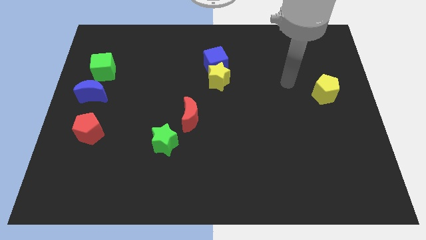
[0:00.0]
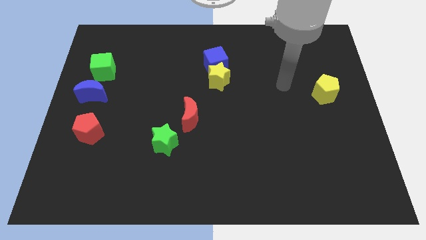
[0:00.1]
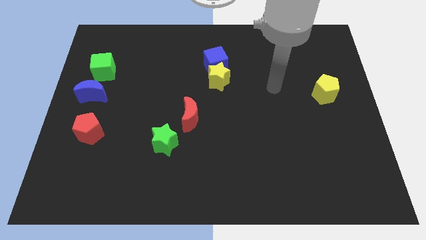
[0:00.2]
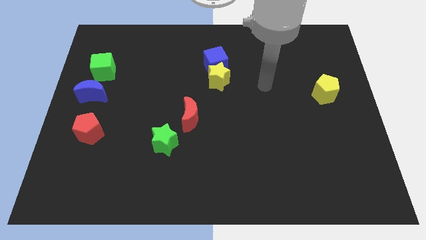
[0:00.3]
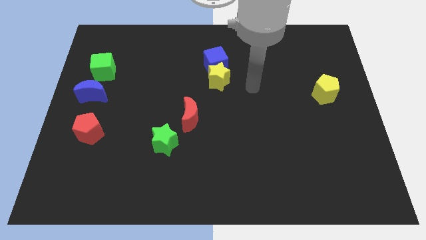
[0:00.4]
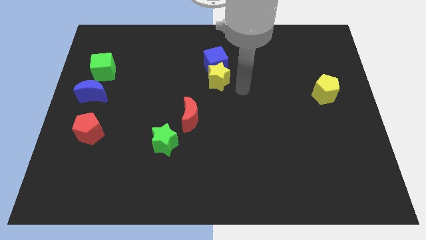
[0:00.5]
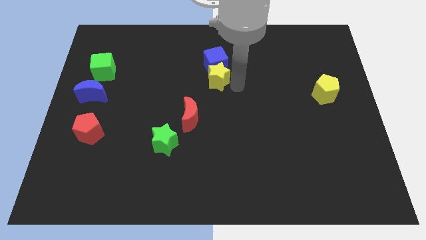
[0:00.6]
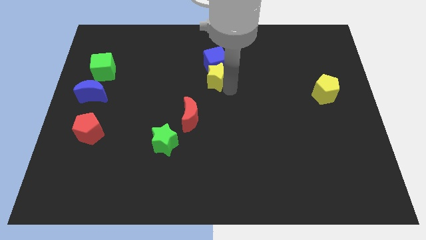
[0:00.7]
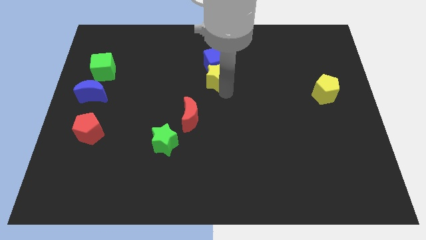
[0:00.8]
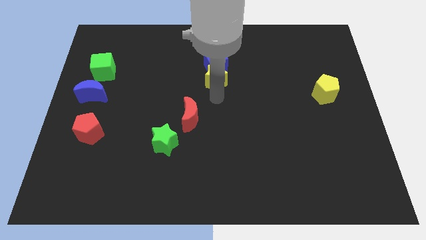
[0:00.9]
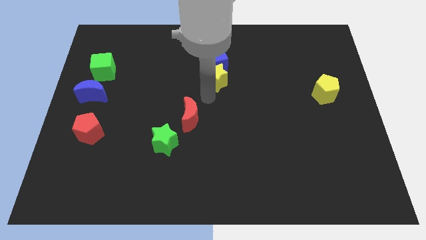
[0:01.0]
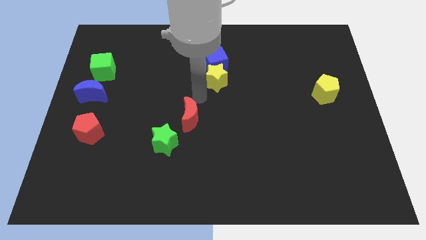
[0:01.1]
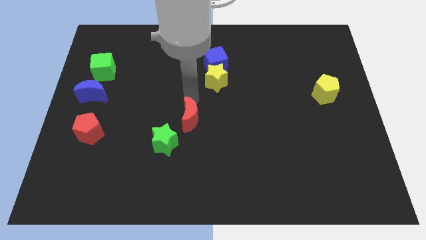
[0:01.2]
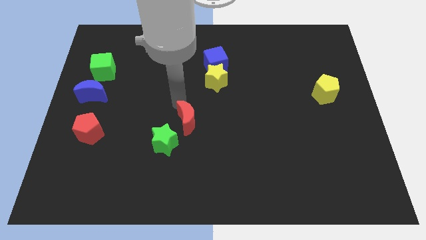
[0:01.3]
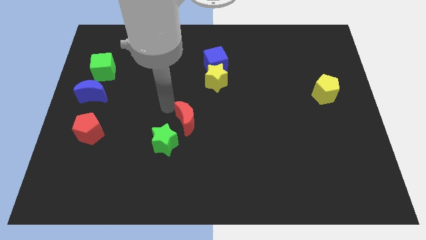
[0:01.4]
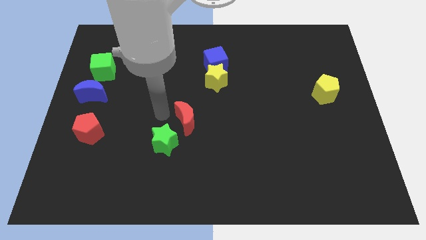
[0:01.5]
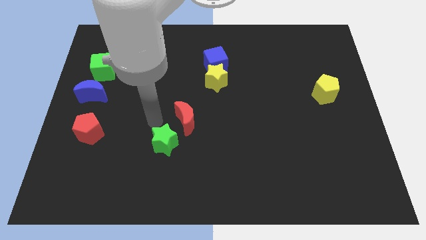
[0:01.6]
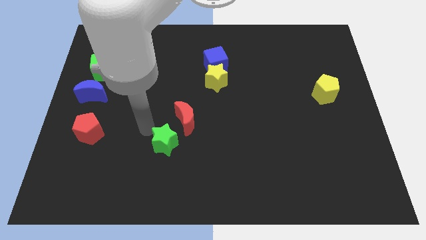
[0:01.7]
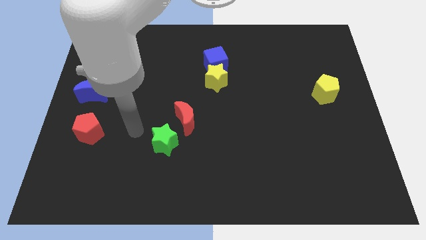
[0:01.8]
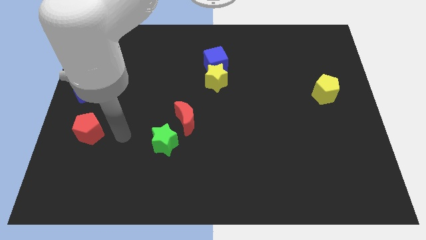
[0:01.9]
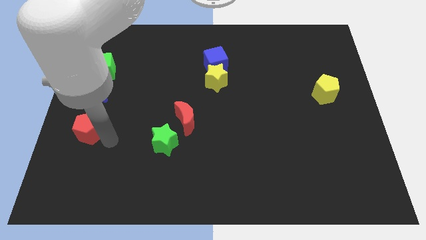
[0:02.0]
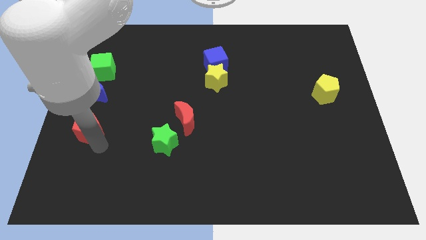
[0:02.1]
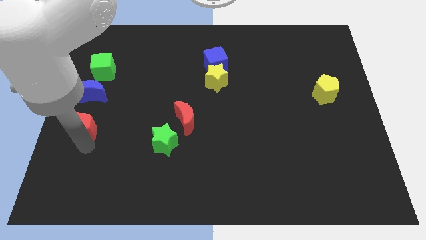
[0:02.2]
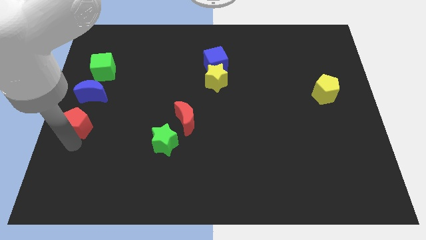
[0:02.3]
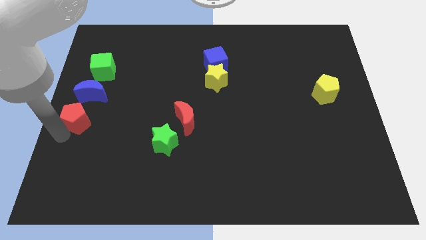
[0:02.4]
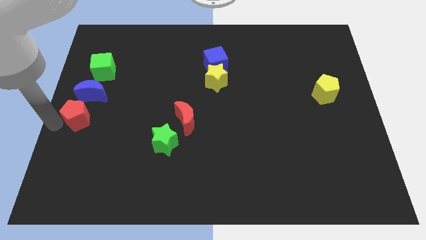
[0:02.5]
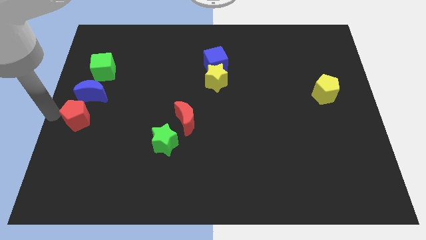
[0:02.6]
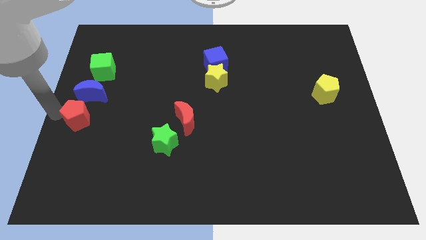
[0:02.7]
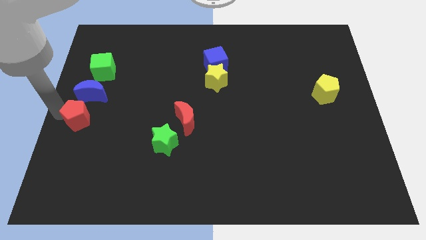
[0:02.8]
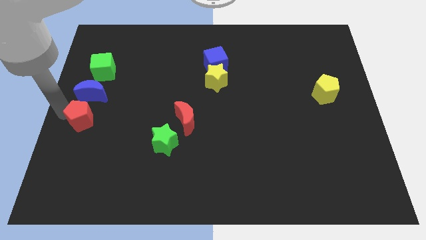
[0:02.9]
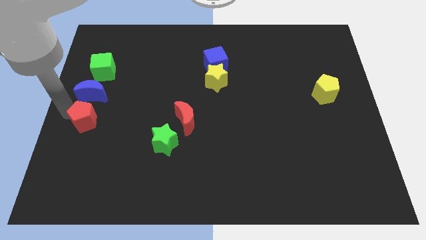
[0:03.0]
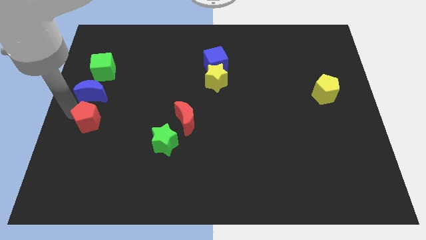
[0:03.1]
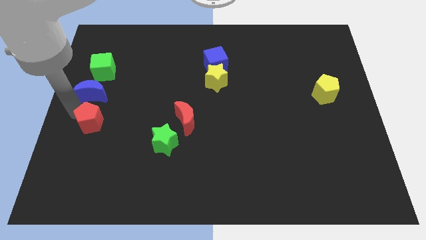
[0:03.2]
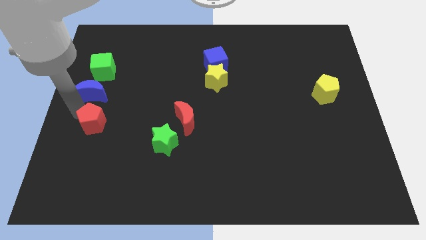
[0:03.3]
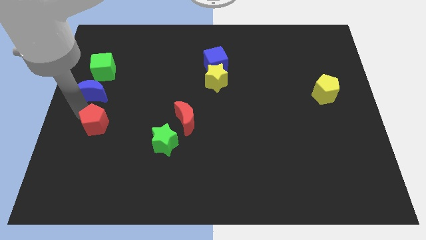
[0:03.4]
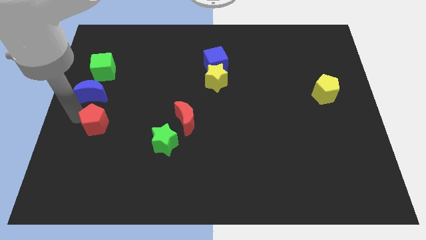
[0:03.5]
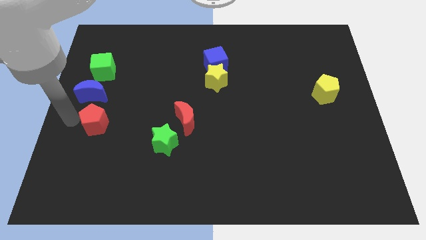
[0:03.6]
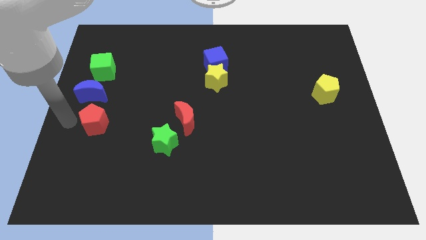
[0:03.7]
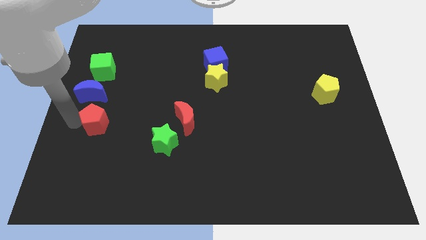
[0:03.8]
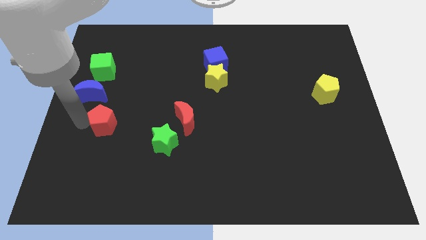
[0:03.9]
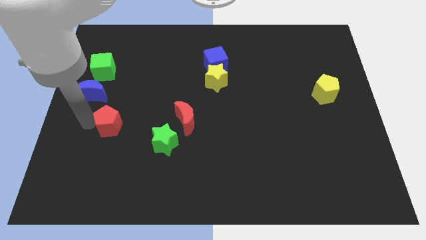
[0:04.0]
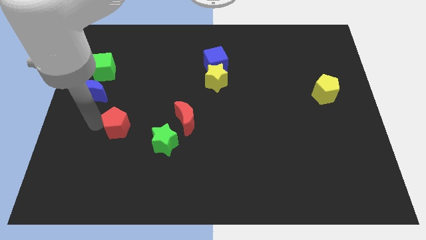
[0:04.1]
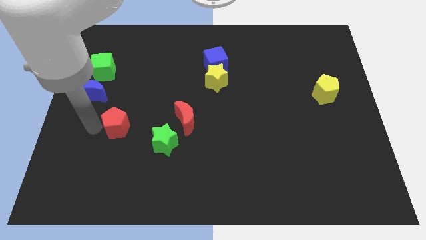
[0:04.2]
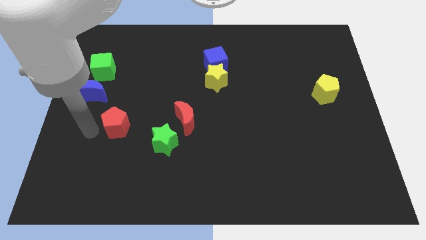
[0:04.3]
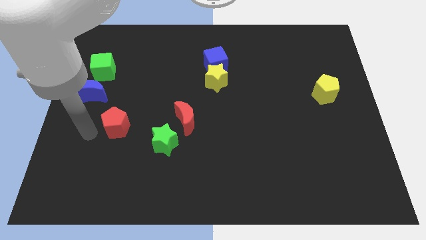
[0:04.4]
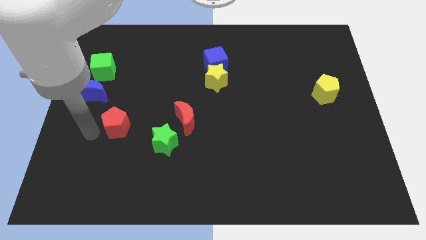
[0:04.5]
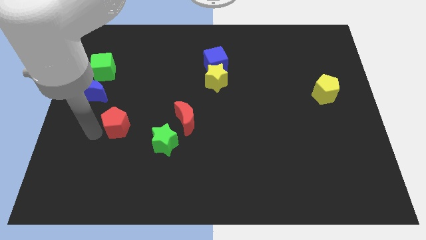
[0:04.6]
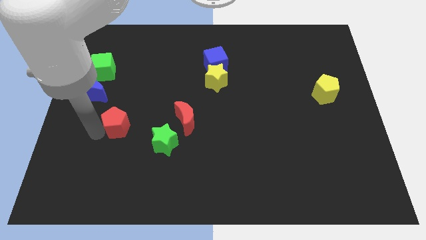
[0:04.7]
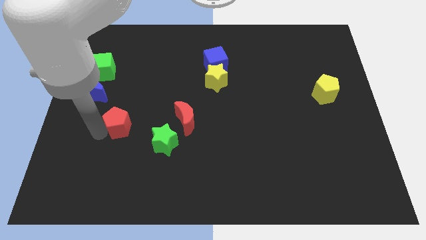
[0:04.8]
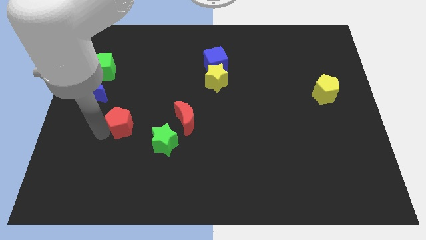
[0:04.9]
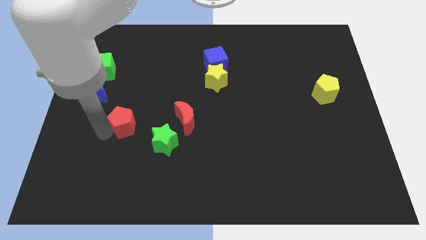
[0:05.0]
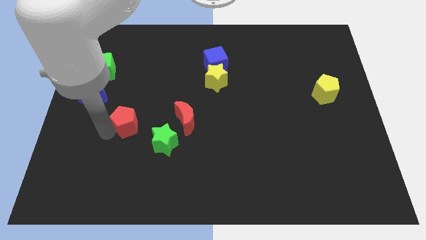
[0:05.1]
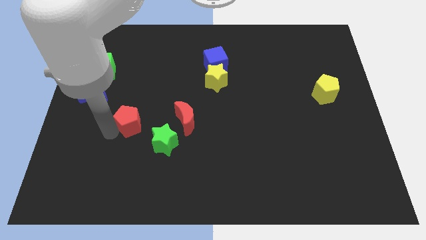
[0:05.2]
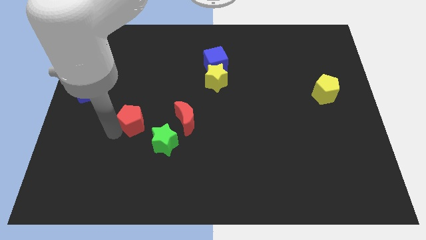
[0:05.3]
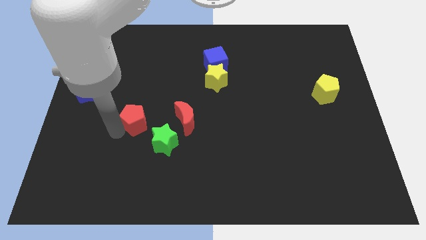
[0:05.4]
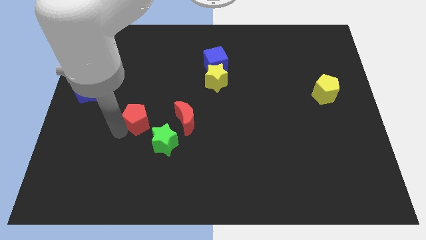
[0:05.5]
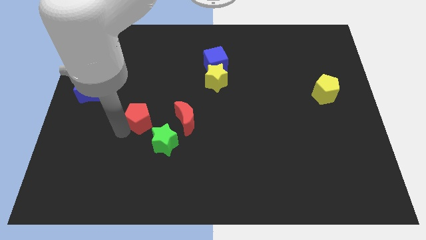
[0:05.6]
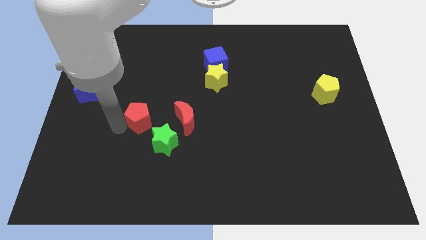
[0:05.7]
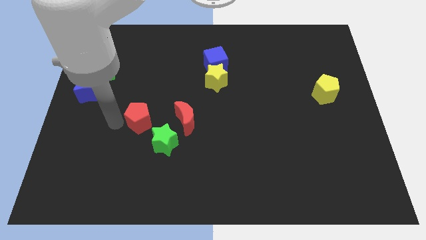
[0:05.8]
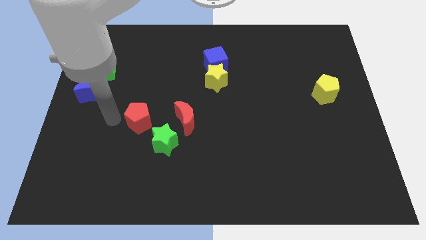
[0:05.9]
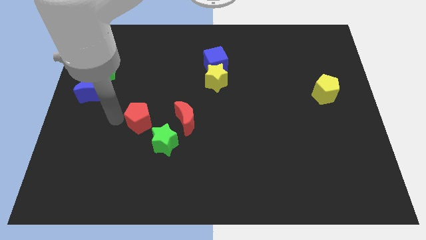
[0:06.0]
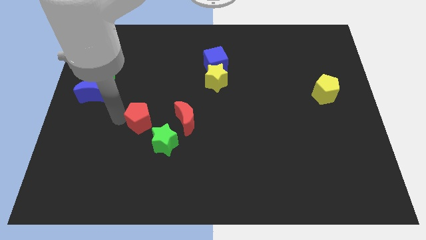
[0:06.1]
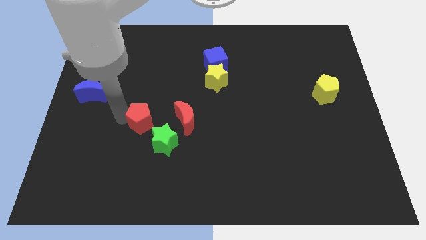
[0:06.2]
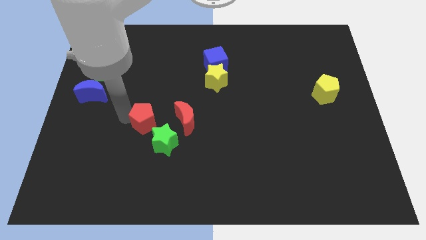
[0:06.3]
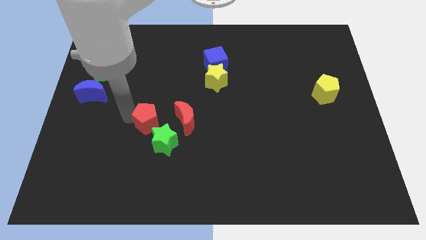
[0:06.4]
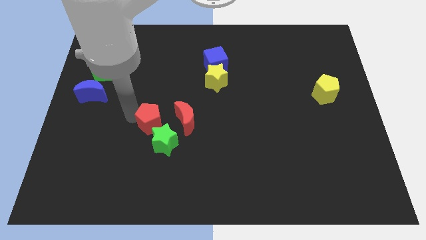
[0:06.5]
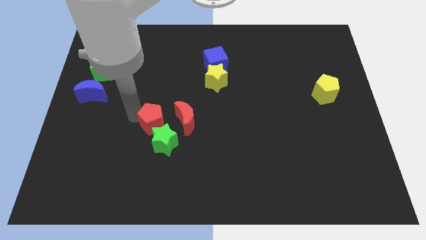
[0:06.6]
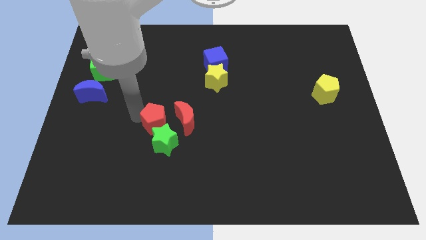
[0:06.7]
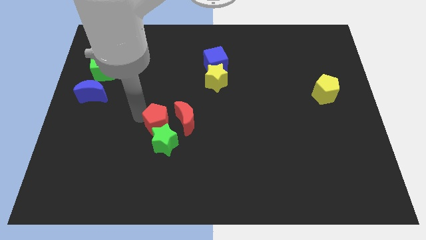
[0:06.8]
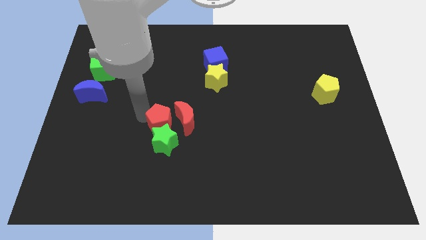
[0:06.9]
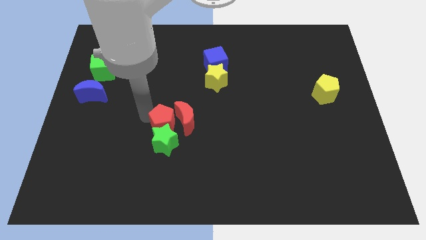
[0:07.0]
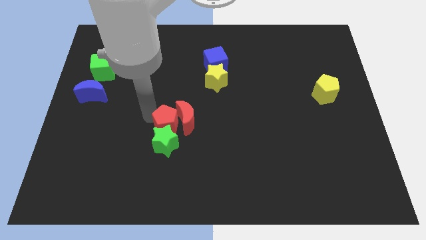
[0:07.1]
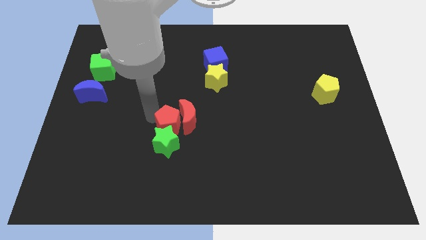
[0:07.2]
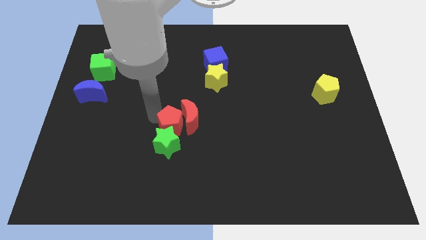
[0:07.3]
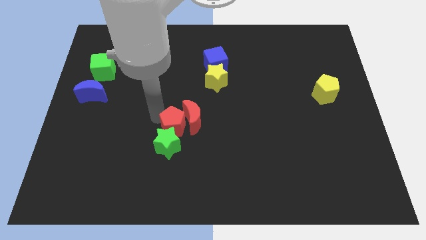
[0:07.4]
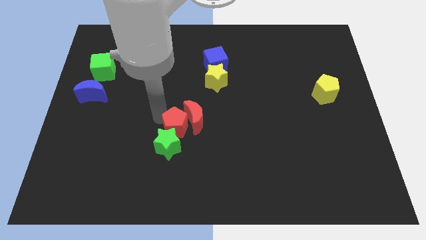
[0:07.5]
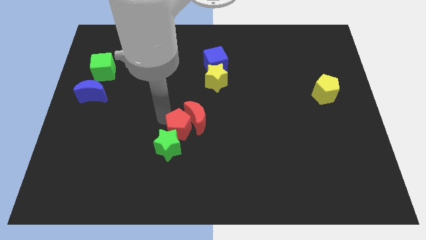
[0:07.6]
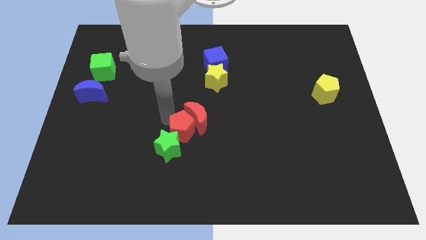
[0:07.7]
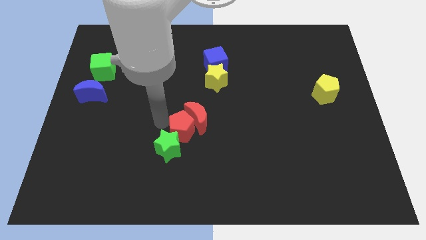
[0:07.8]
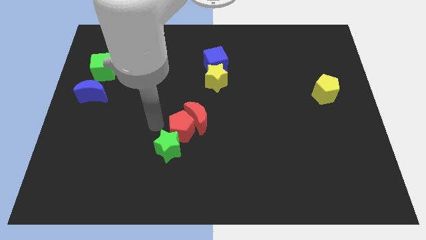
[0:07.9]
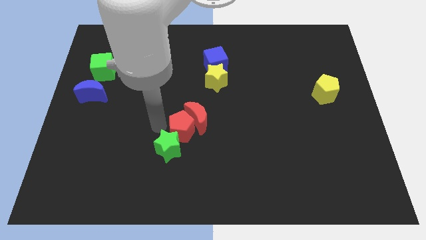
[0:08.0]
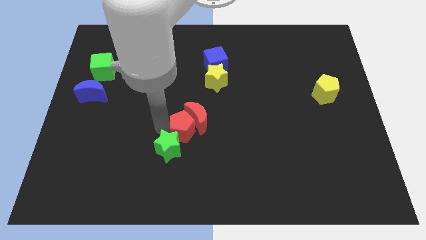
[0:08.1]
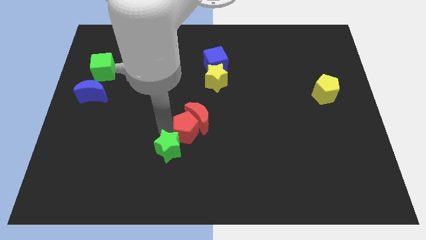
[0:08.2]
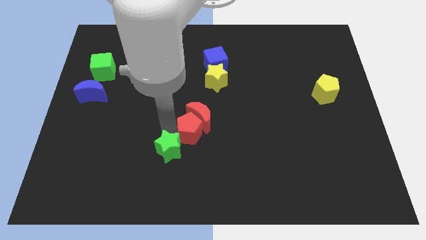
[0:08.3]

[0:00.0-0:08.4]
slide the red pentagon diagonally down and to the right of the red moon
